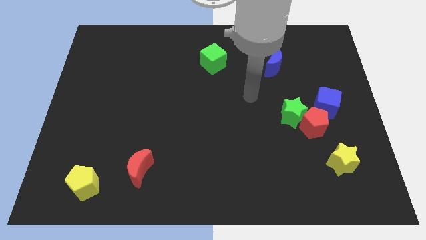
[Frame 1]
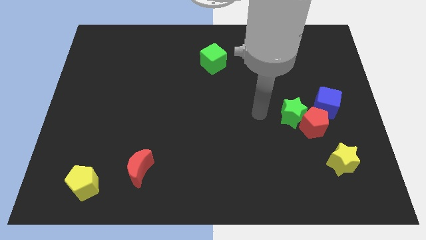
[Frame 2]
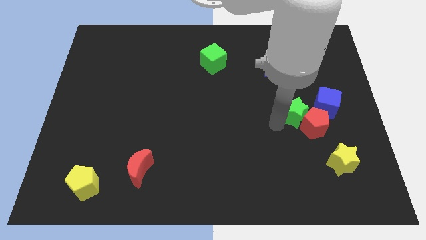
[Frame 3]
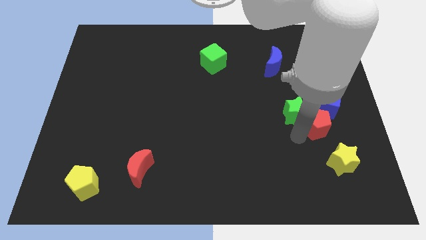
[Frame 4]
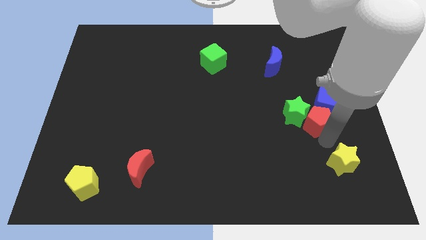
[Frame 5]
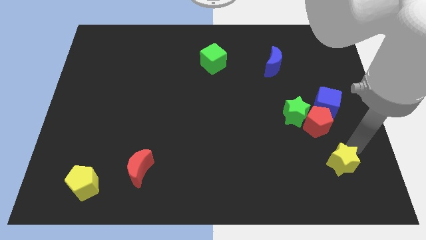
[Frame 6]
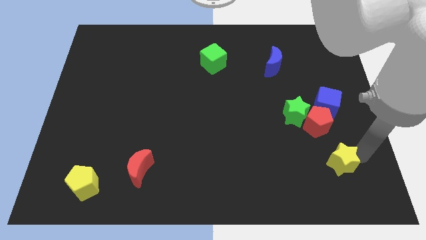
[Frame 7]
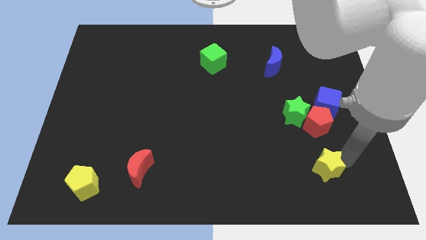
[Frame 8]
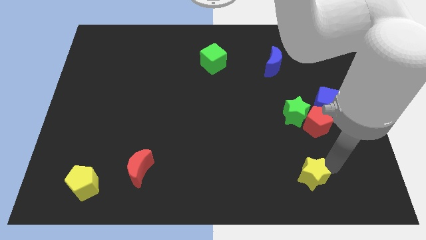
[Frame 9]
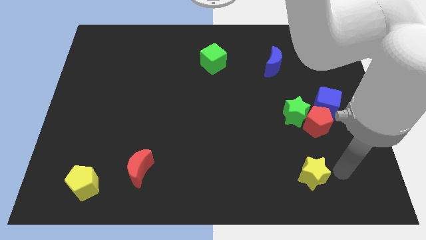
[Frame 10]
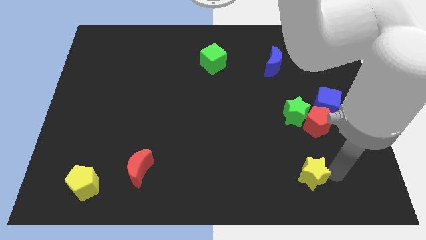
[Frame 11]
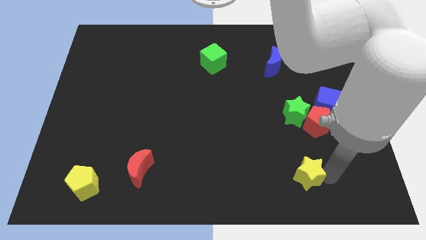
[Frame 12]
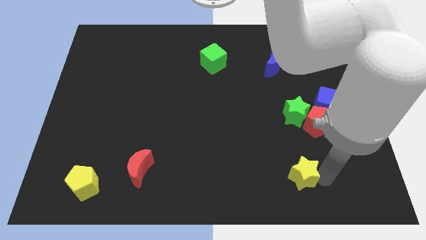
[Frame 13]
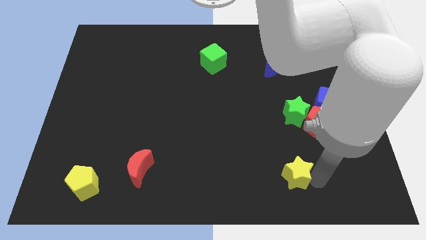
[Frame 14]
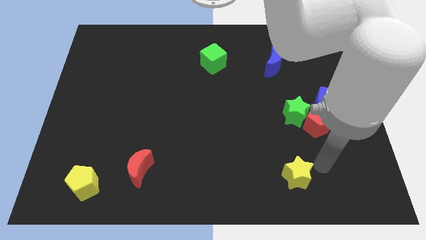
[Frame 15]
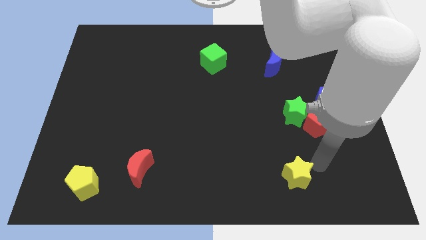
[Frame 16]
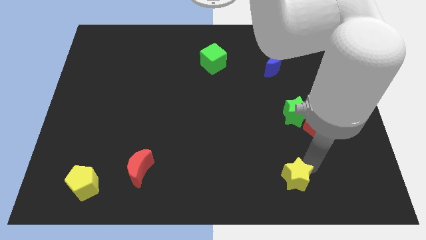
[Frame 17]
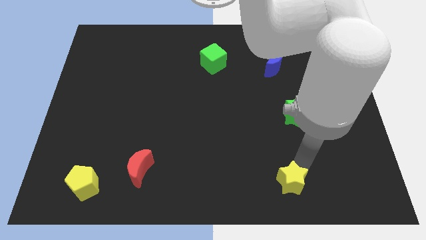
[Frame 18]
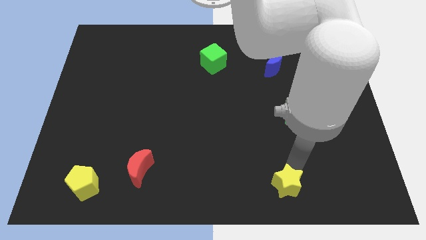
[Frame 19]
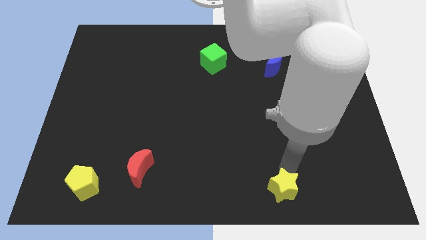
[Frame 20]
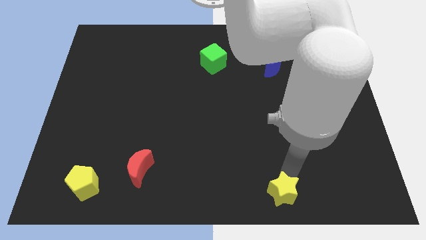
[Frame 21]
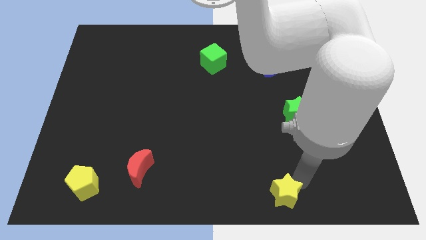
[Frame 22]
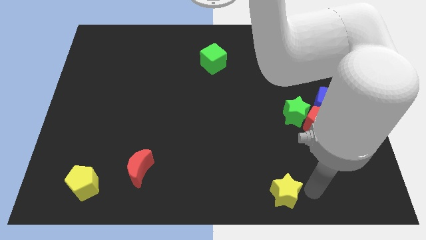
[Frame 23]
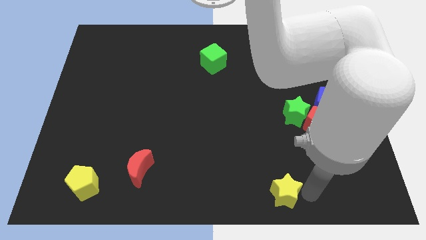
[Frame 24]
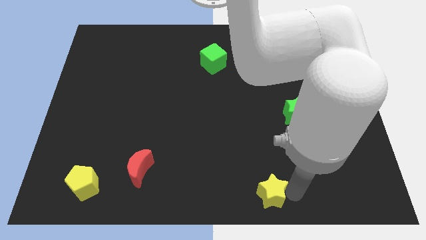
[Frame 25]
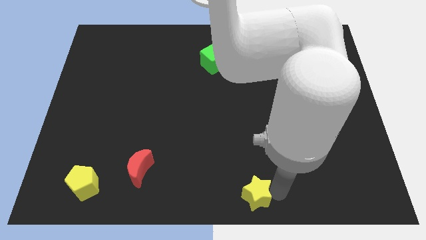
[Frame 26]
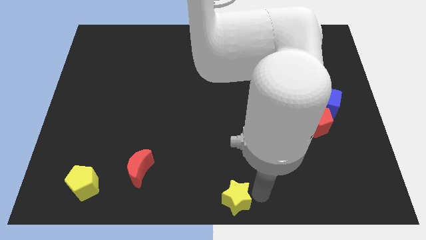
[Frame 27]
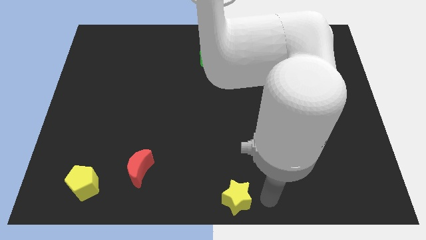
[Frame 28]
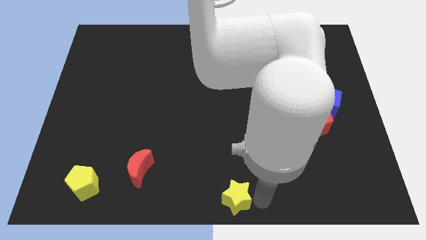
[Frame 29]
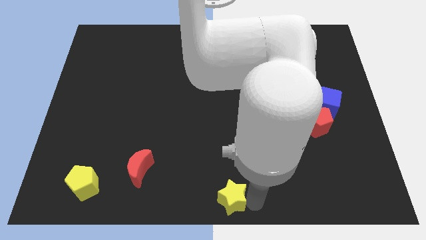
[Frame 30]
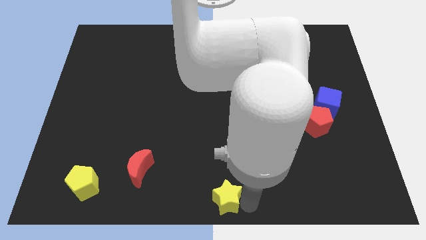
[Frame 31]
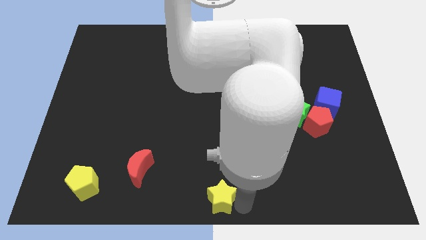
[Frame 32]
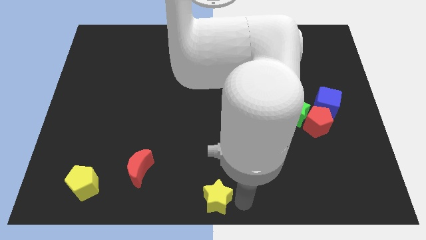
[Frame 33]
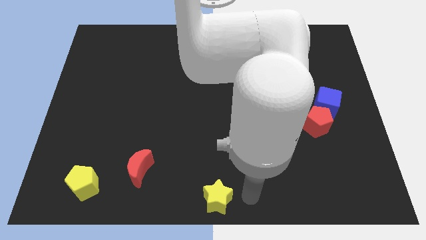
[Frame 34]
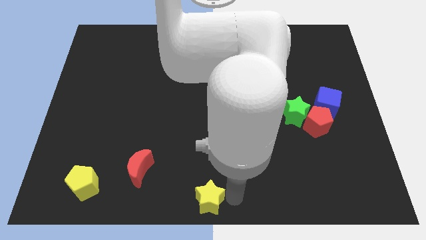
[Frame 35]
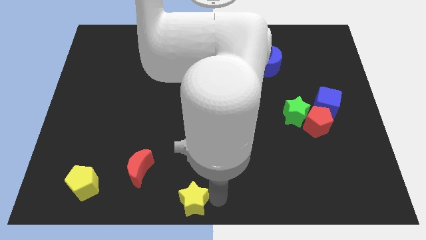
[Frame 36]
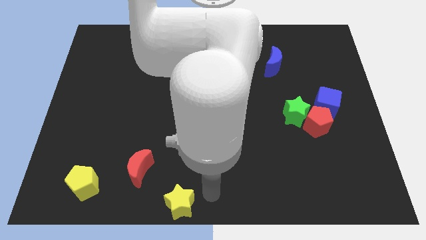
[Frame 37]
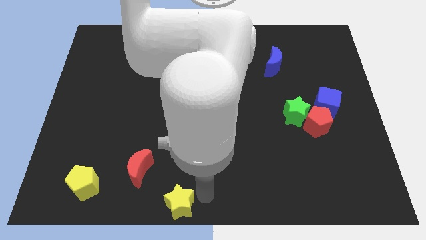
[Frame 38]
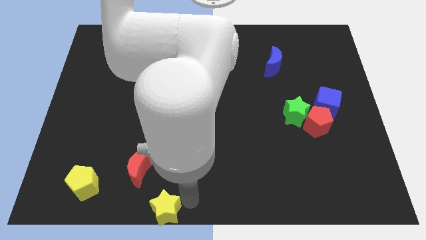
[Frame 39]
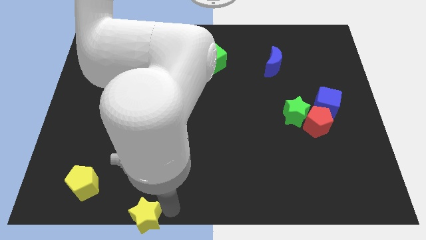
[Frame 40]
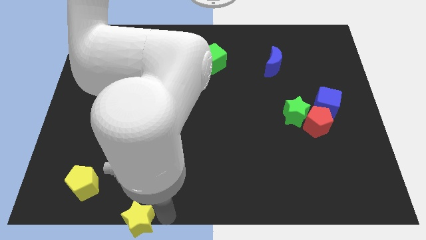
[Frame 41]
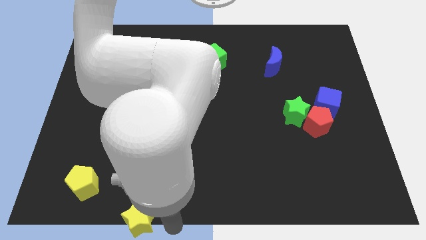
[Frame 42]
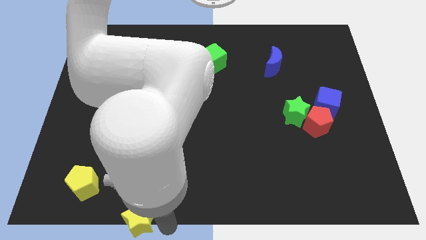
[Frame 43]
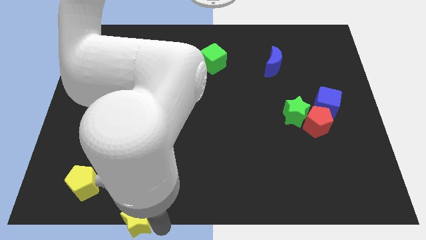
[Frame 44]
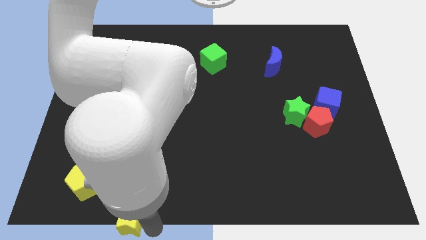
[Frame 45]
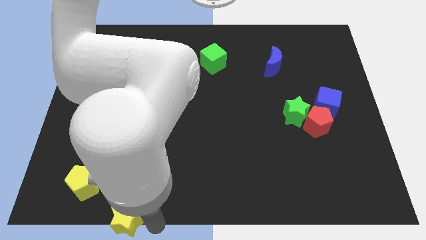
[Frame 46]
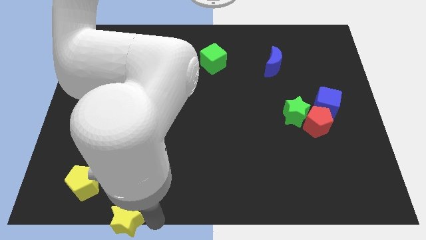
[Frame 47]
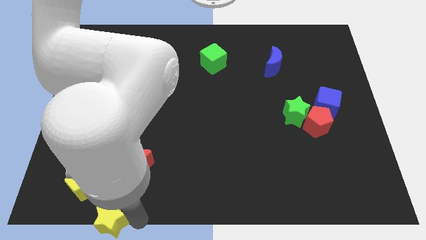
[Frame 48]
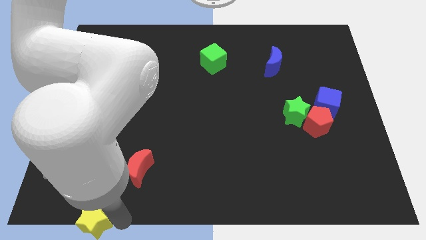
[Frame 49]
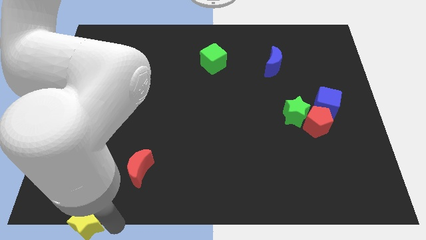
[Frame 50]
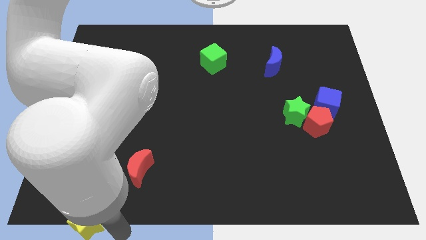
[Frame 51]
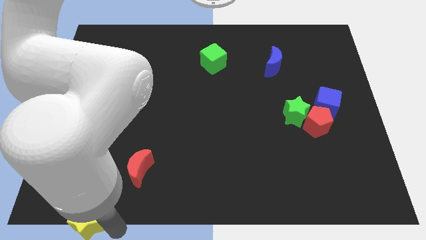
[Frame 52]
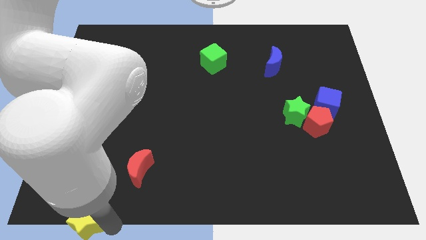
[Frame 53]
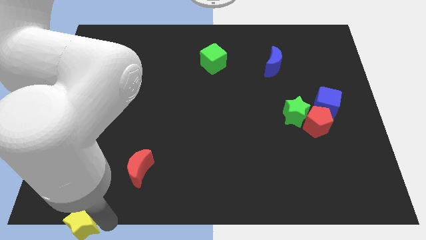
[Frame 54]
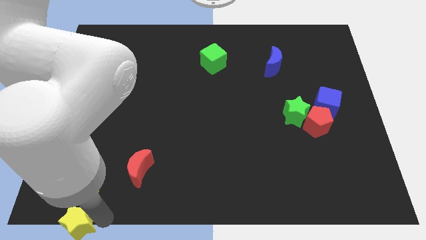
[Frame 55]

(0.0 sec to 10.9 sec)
slide the yellow star to the bottom left corner

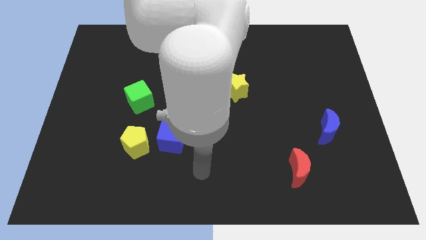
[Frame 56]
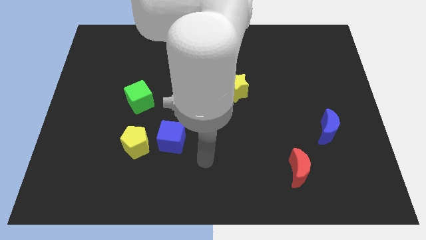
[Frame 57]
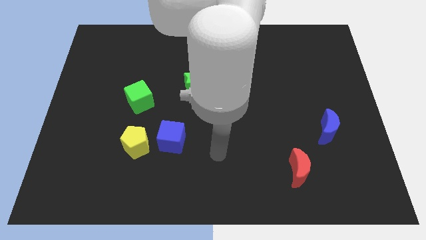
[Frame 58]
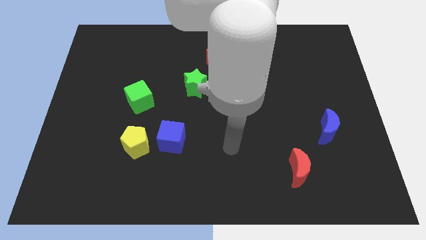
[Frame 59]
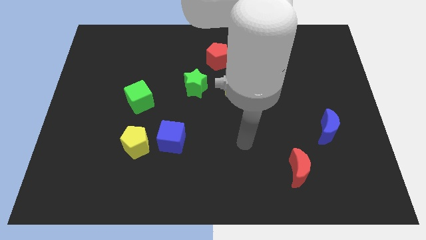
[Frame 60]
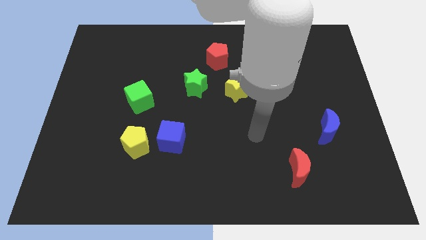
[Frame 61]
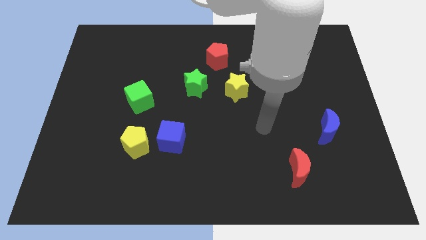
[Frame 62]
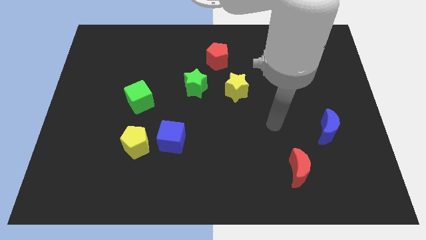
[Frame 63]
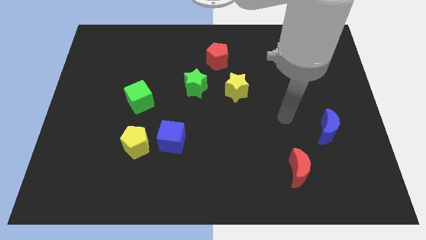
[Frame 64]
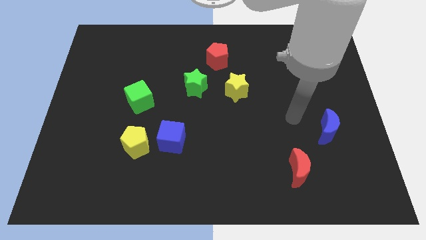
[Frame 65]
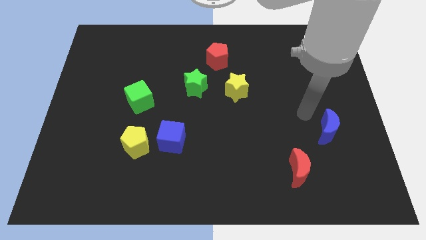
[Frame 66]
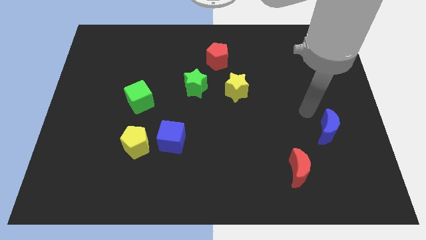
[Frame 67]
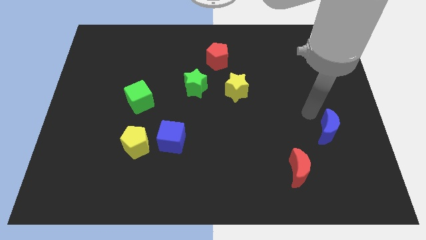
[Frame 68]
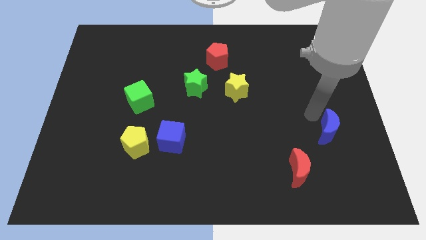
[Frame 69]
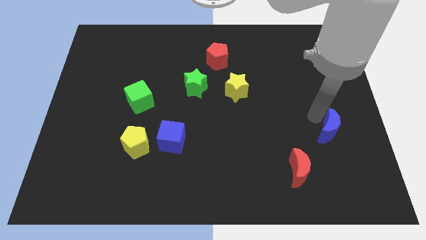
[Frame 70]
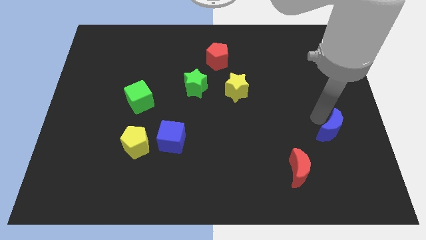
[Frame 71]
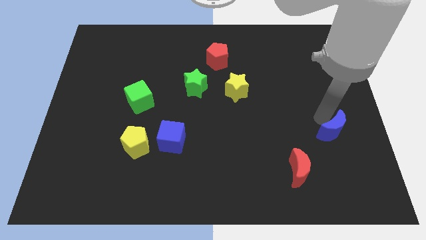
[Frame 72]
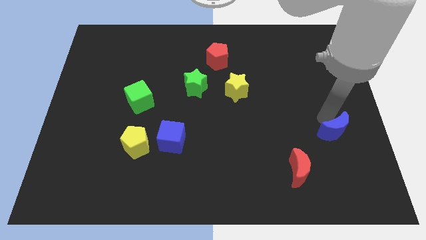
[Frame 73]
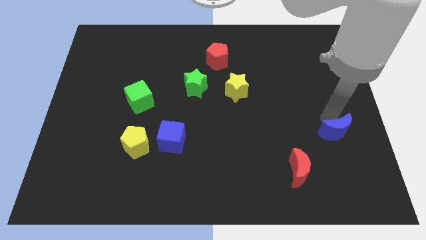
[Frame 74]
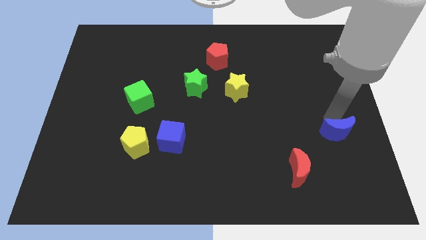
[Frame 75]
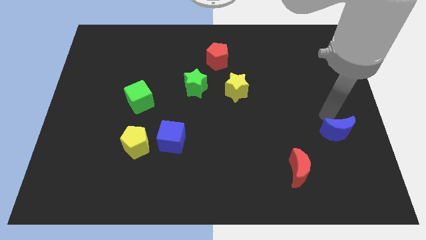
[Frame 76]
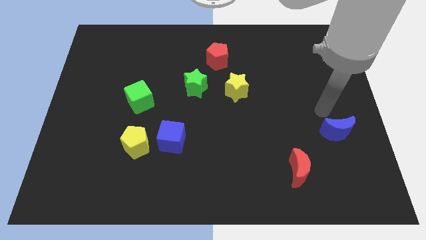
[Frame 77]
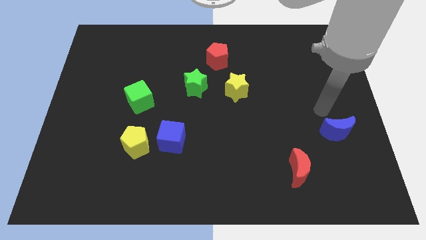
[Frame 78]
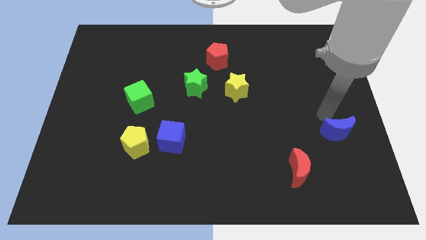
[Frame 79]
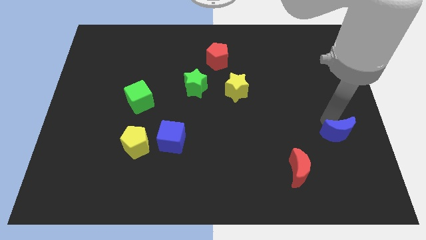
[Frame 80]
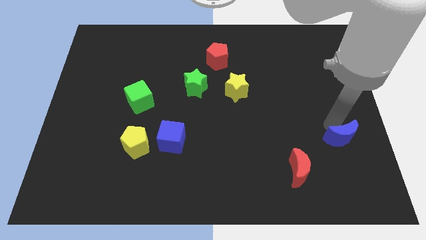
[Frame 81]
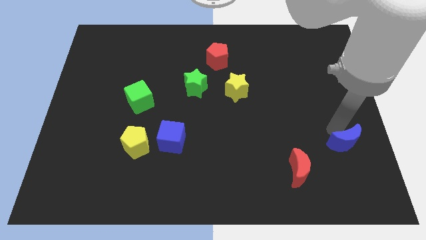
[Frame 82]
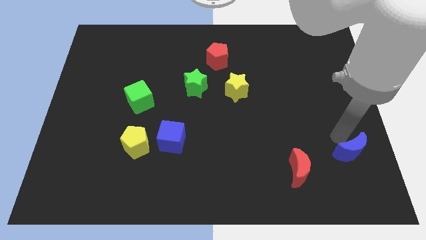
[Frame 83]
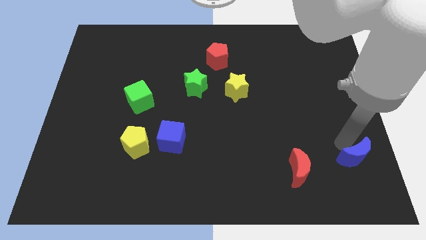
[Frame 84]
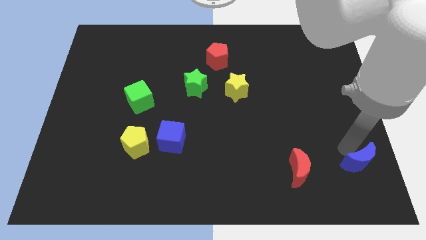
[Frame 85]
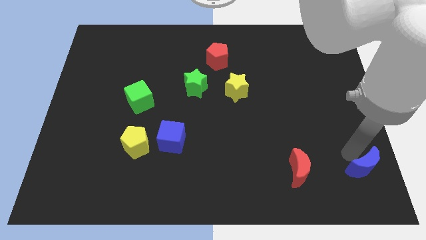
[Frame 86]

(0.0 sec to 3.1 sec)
push the blue moon to the bottom right
